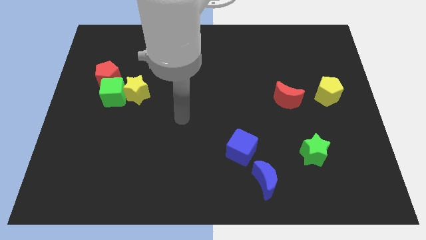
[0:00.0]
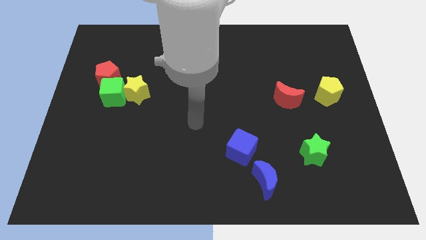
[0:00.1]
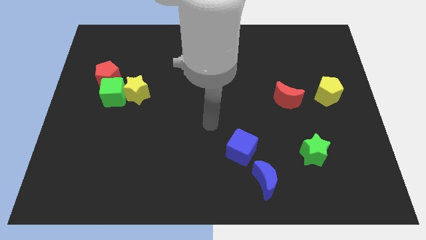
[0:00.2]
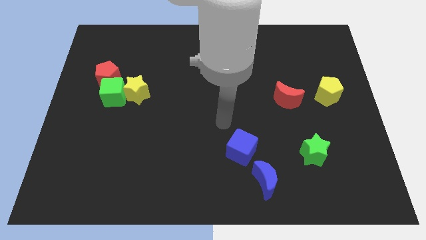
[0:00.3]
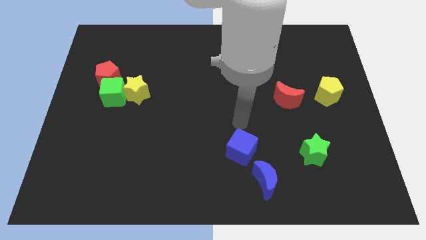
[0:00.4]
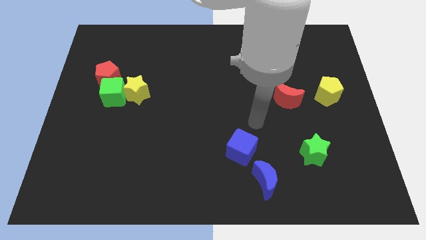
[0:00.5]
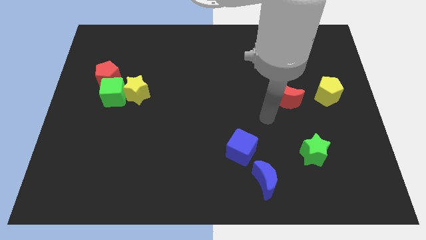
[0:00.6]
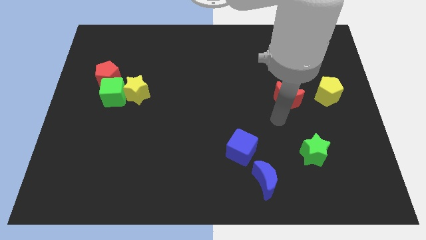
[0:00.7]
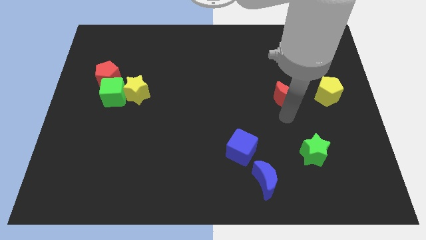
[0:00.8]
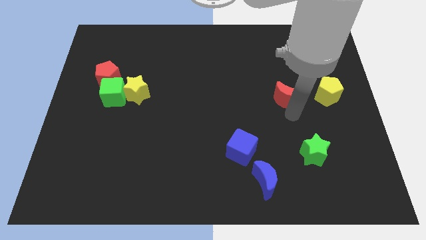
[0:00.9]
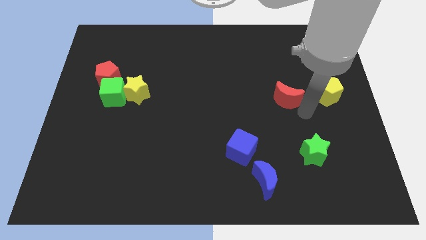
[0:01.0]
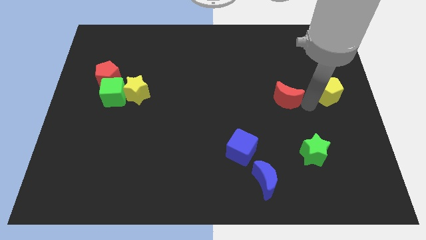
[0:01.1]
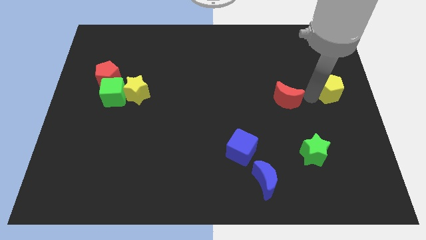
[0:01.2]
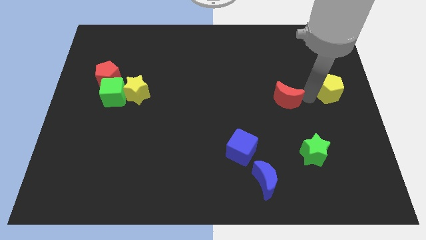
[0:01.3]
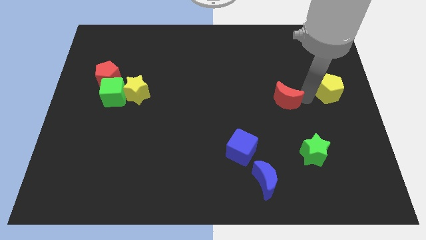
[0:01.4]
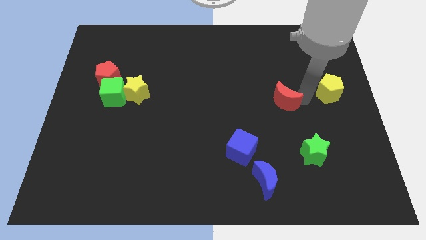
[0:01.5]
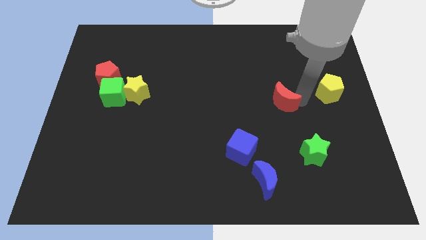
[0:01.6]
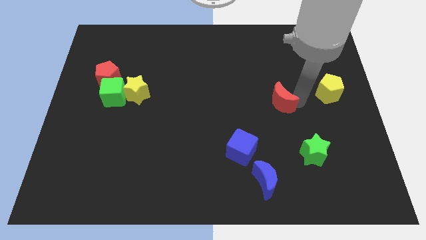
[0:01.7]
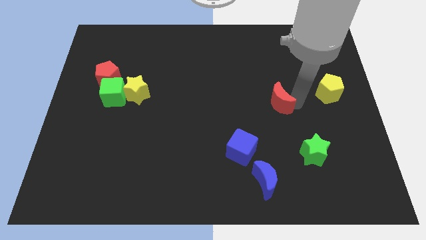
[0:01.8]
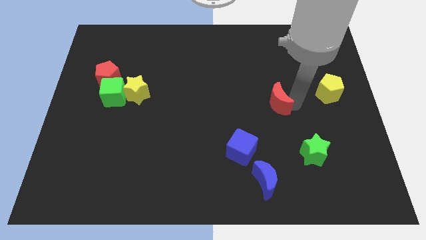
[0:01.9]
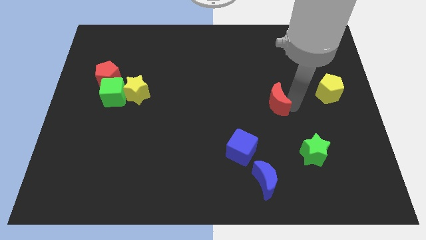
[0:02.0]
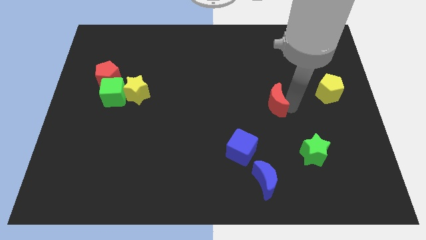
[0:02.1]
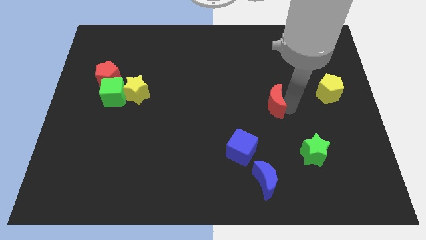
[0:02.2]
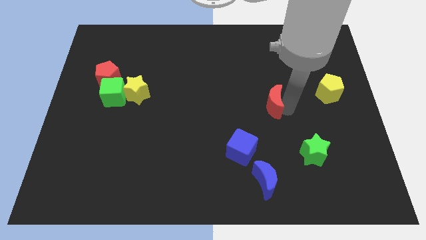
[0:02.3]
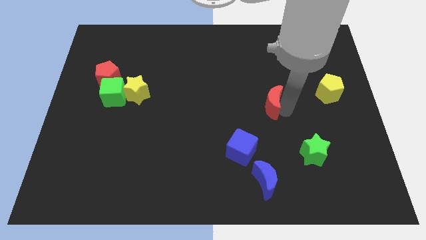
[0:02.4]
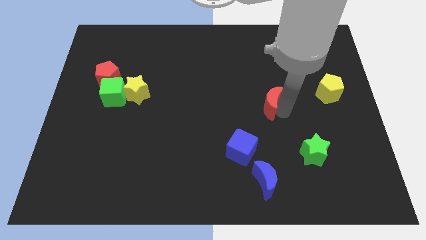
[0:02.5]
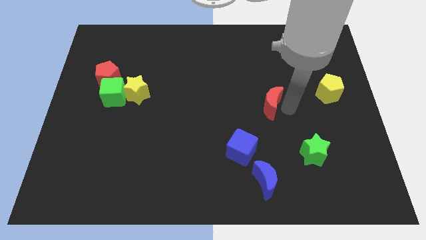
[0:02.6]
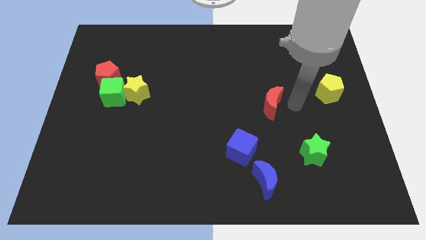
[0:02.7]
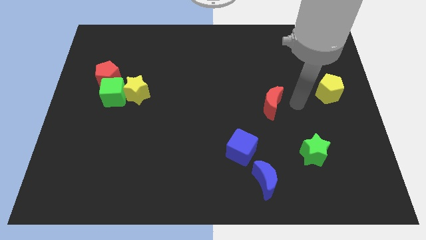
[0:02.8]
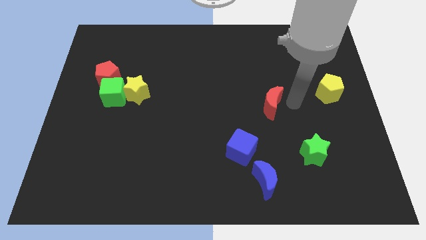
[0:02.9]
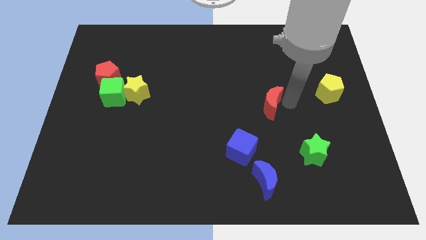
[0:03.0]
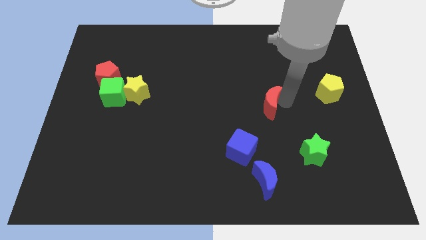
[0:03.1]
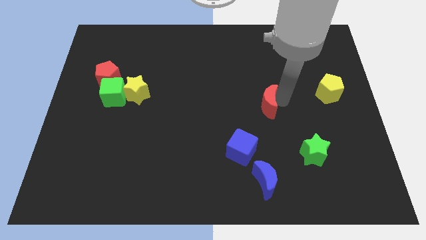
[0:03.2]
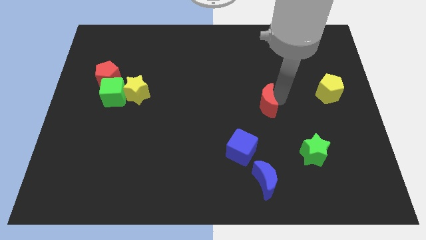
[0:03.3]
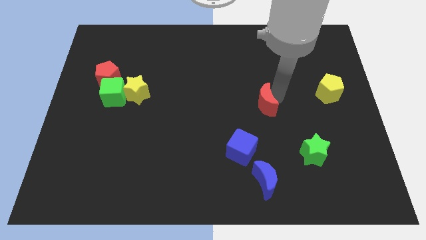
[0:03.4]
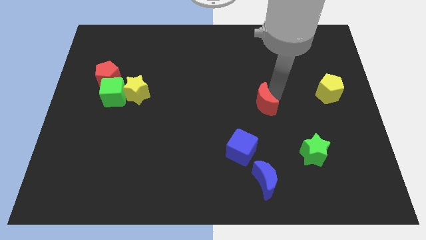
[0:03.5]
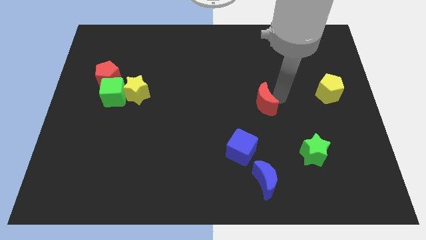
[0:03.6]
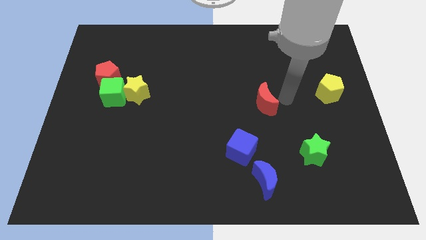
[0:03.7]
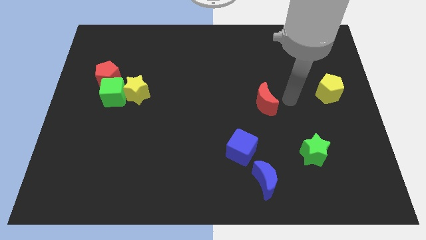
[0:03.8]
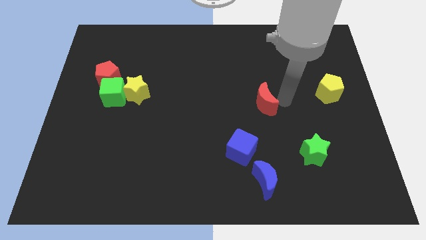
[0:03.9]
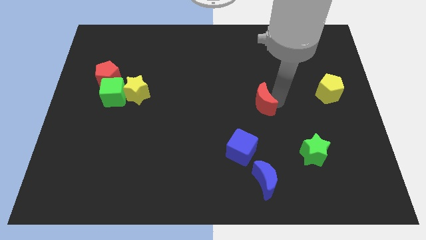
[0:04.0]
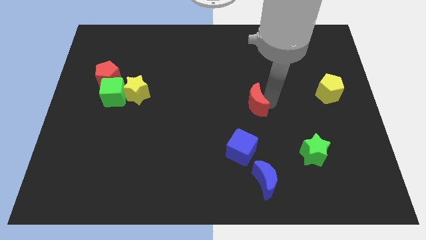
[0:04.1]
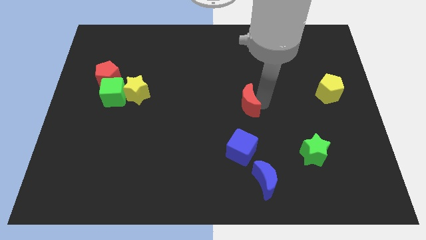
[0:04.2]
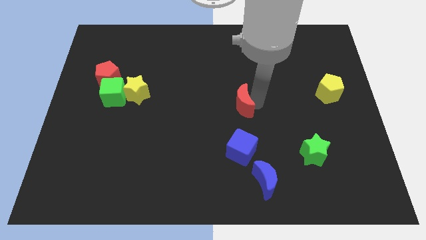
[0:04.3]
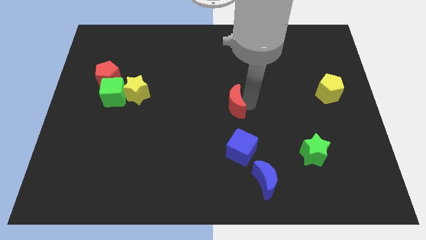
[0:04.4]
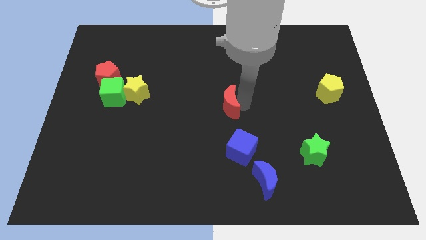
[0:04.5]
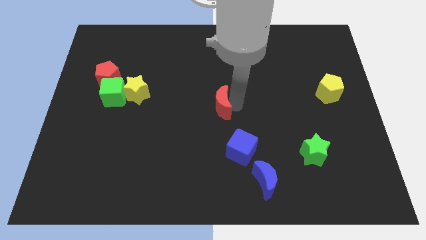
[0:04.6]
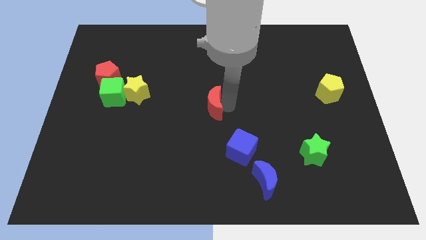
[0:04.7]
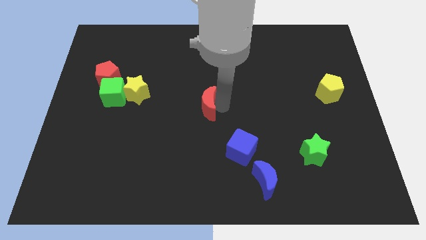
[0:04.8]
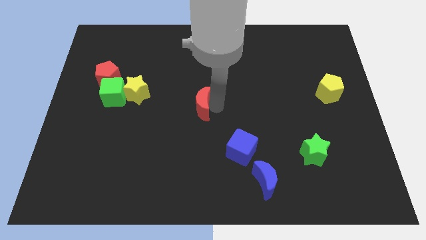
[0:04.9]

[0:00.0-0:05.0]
move the red moon to the left

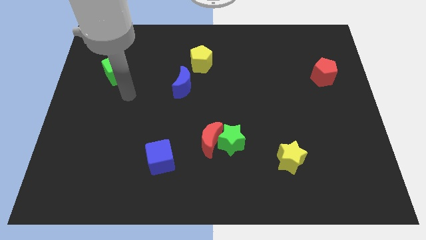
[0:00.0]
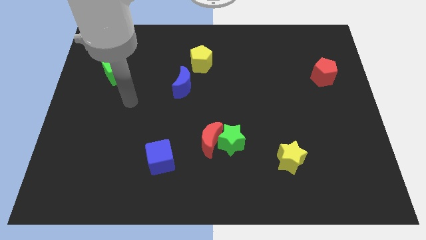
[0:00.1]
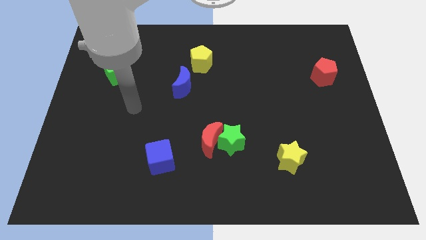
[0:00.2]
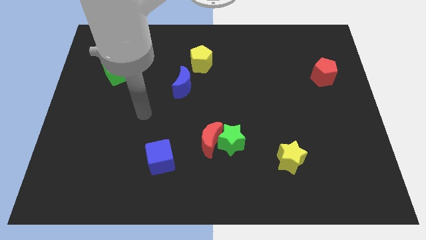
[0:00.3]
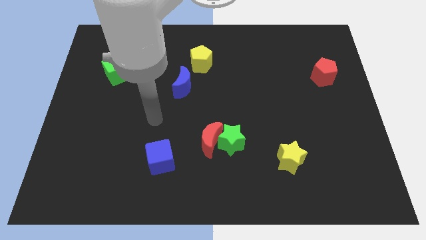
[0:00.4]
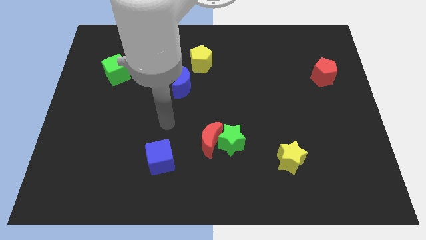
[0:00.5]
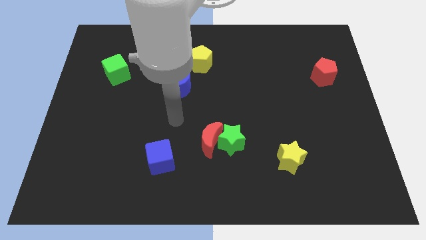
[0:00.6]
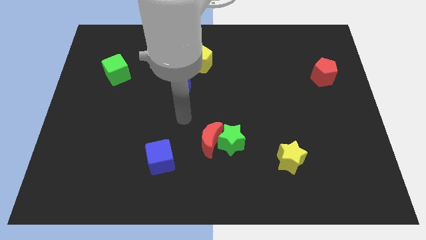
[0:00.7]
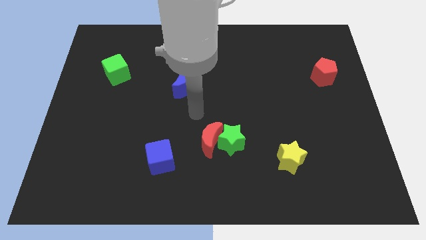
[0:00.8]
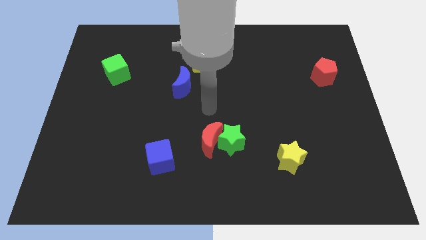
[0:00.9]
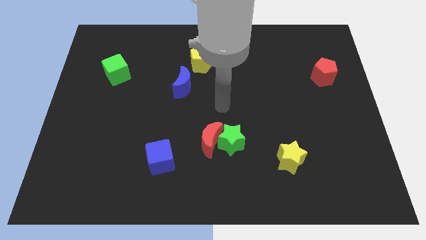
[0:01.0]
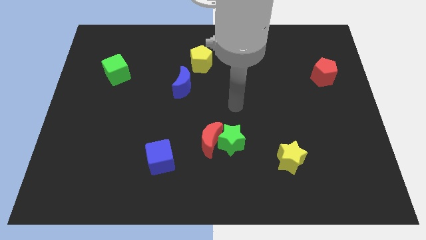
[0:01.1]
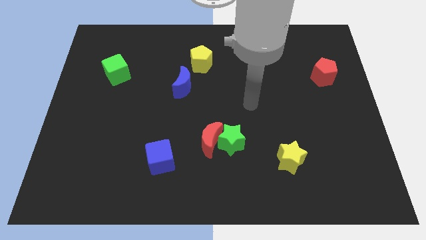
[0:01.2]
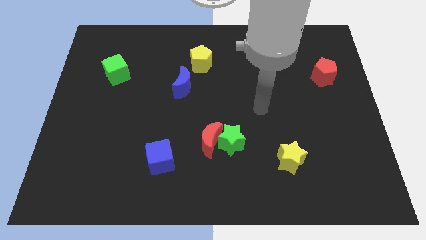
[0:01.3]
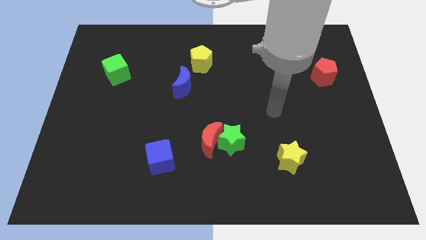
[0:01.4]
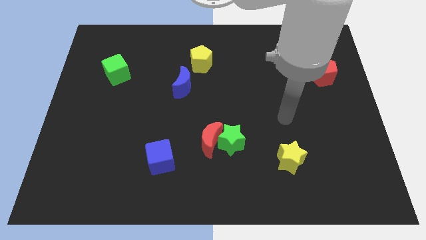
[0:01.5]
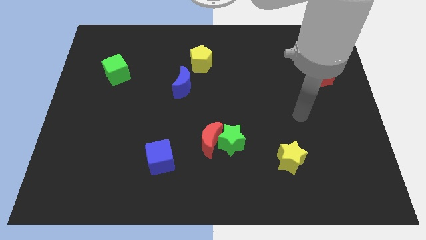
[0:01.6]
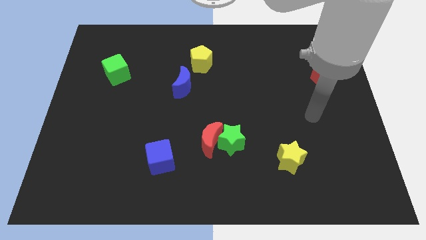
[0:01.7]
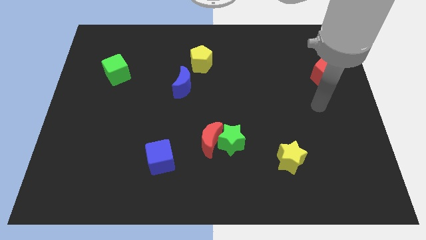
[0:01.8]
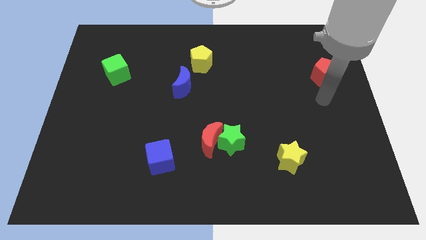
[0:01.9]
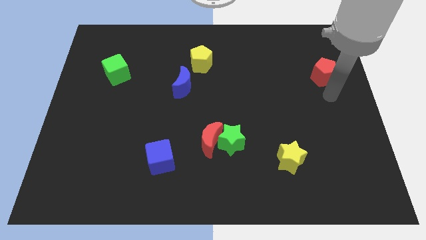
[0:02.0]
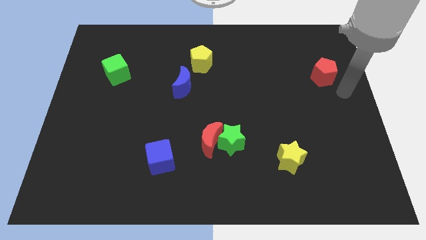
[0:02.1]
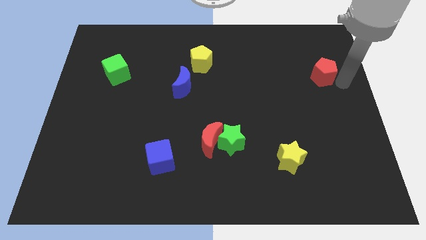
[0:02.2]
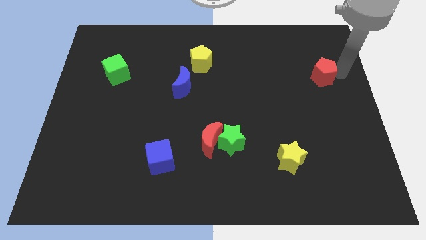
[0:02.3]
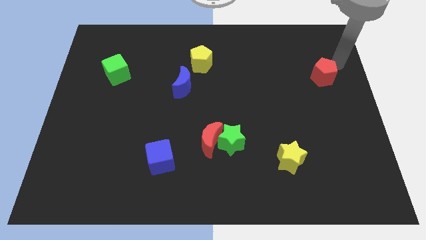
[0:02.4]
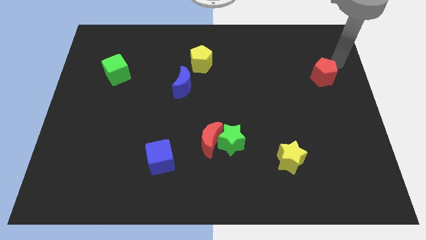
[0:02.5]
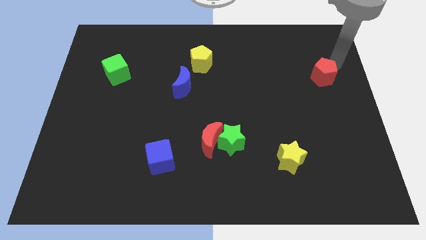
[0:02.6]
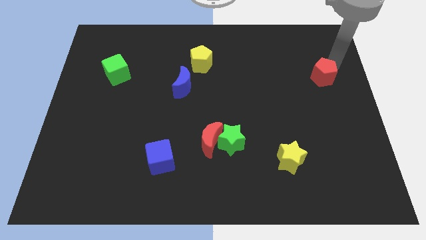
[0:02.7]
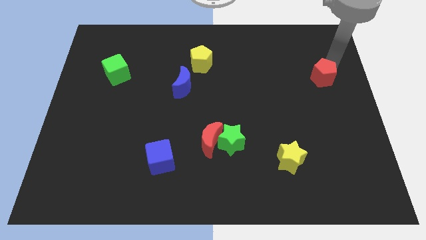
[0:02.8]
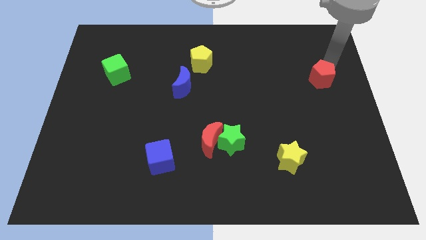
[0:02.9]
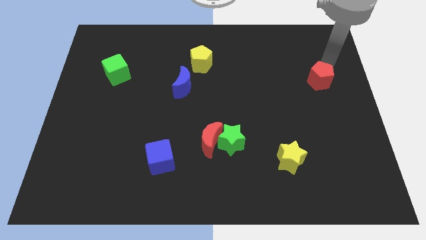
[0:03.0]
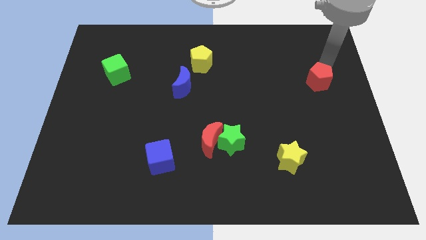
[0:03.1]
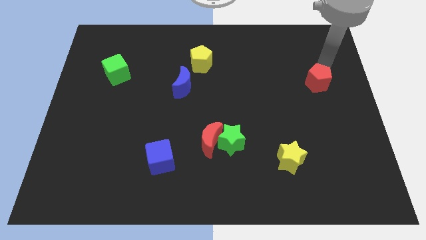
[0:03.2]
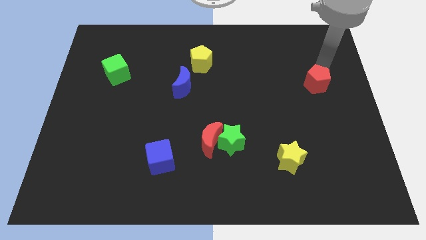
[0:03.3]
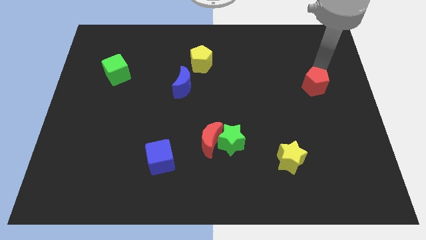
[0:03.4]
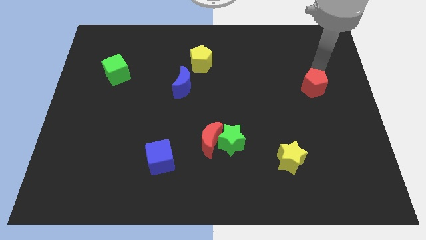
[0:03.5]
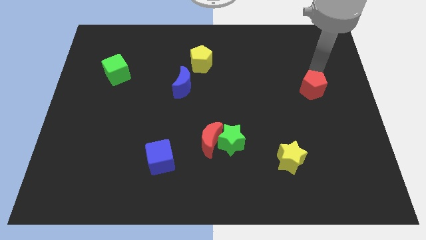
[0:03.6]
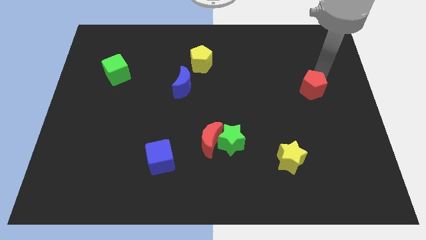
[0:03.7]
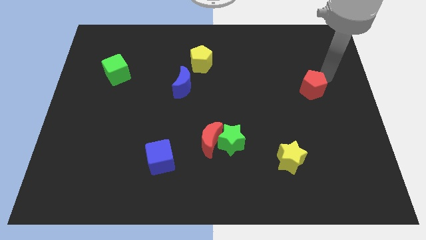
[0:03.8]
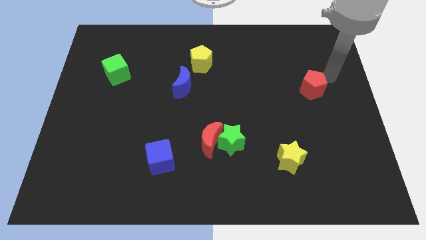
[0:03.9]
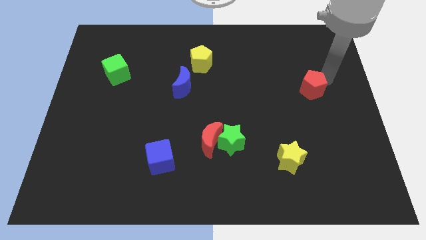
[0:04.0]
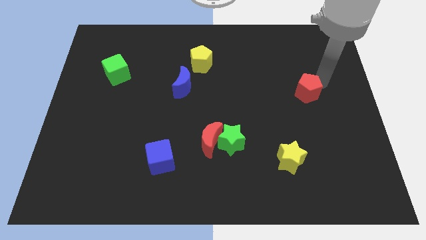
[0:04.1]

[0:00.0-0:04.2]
move the red pentagon downwards and to the left a bit
